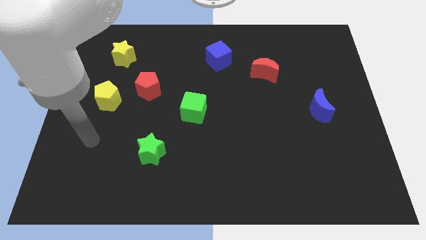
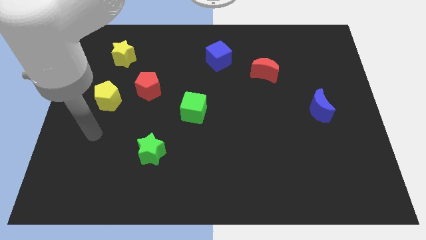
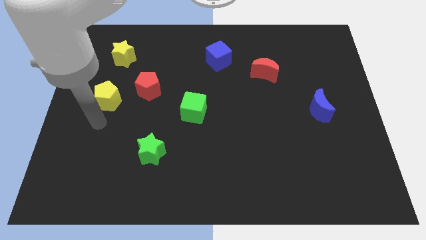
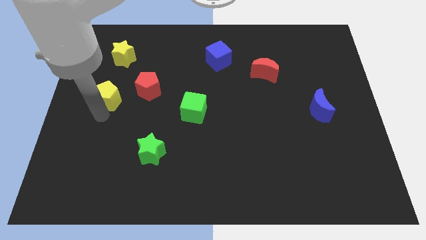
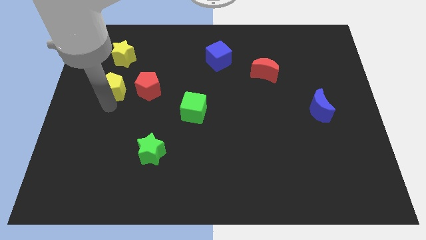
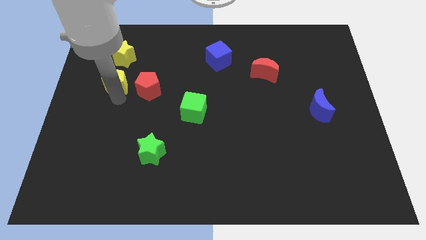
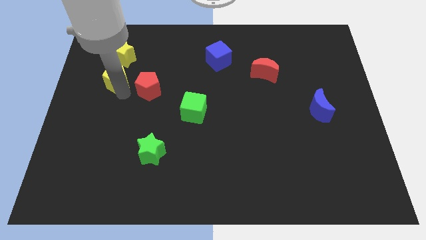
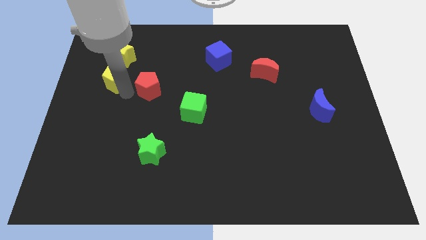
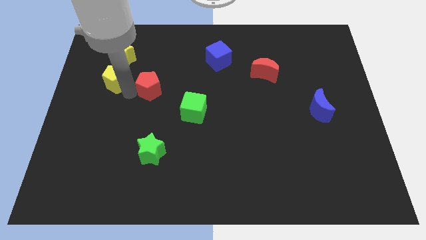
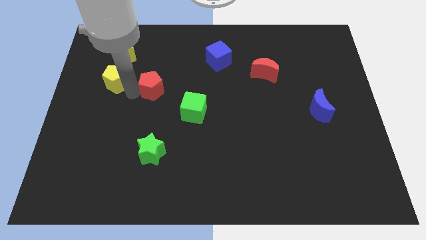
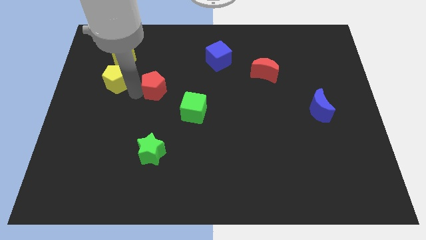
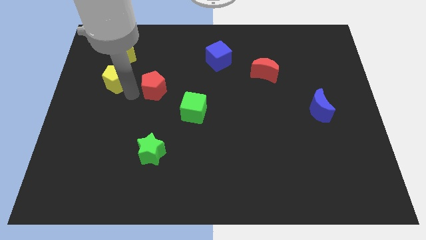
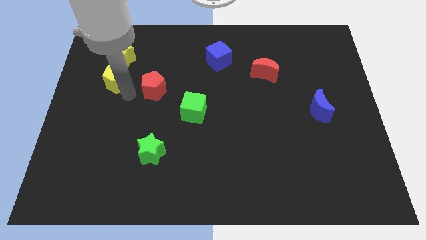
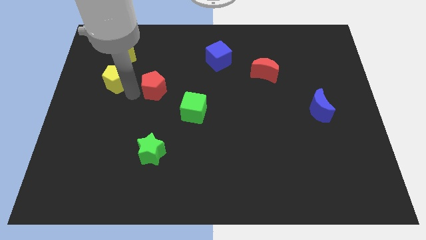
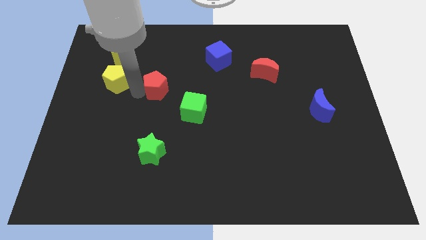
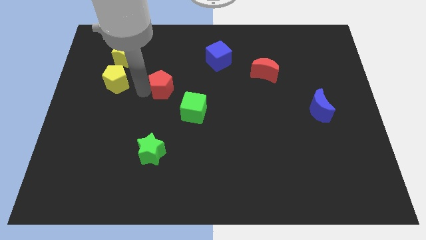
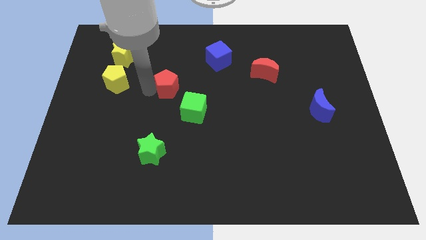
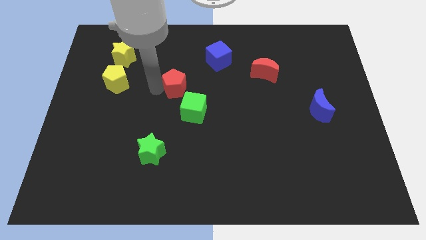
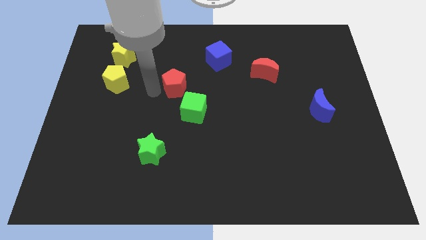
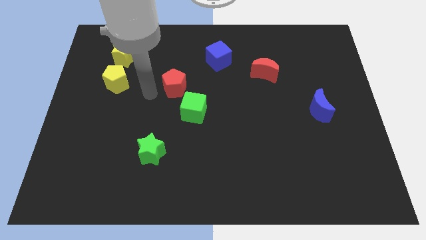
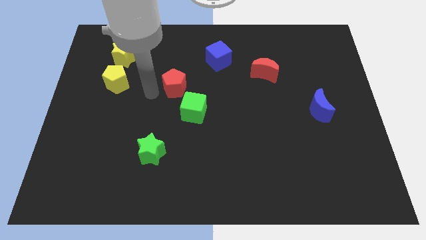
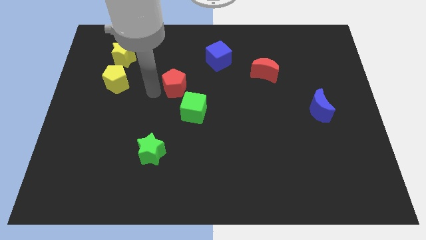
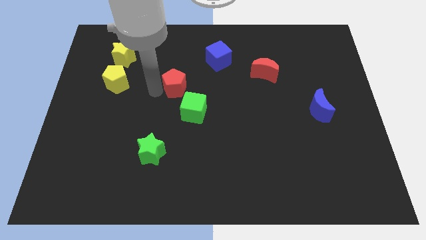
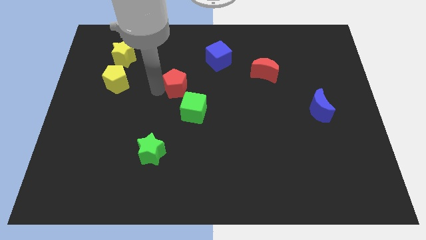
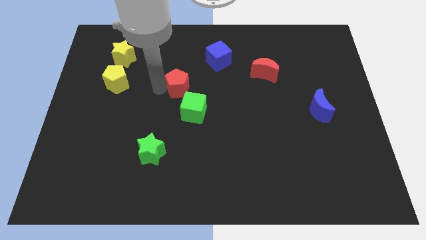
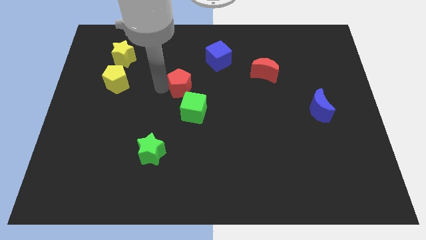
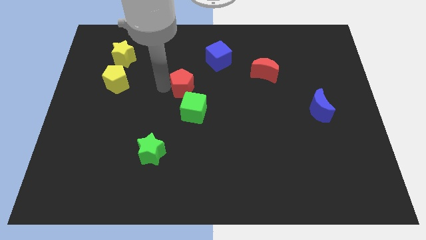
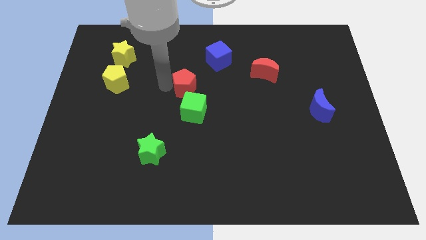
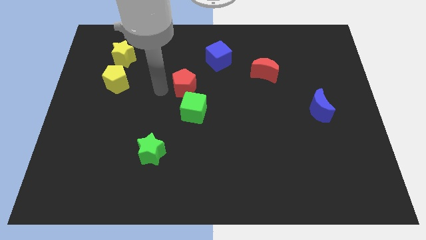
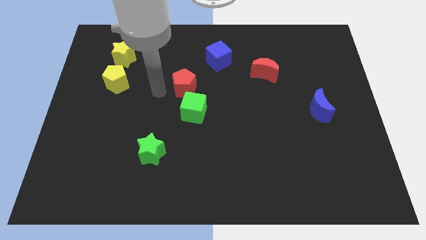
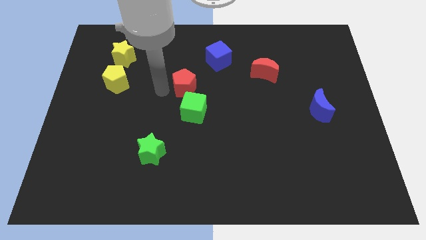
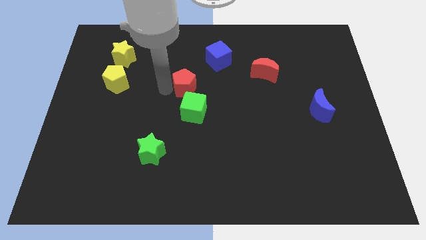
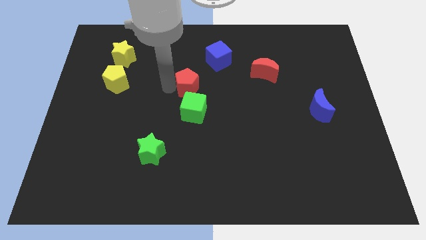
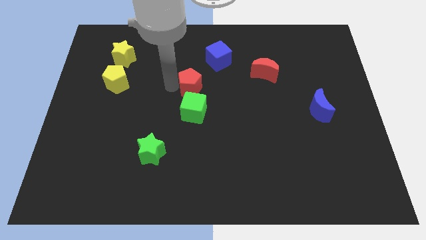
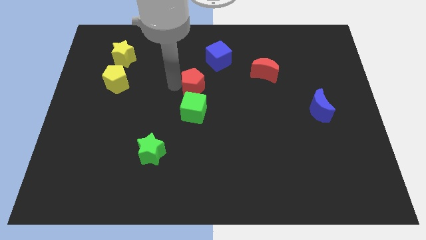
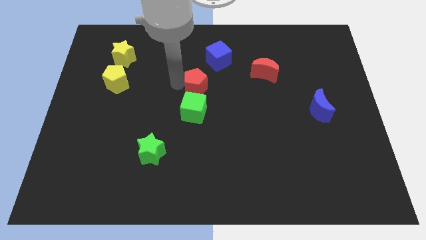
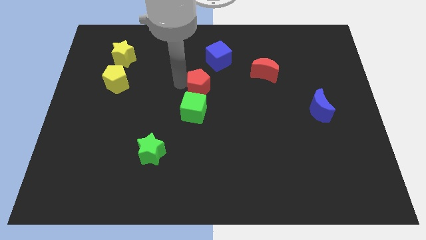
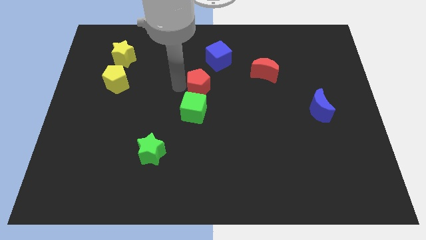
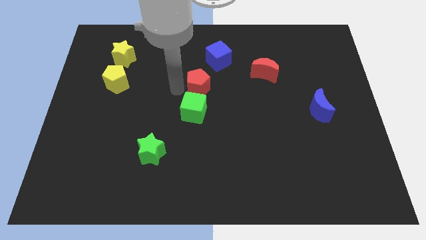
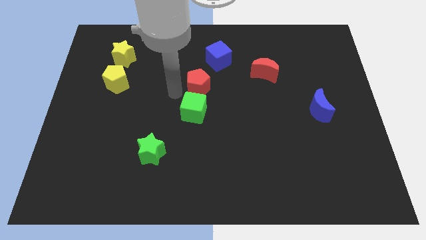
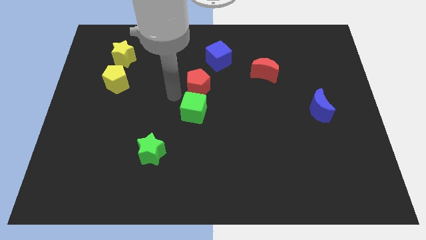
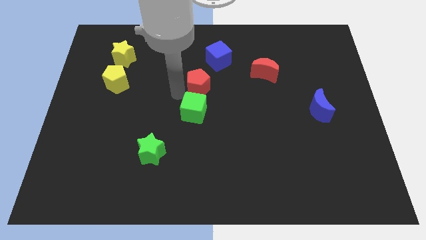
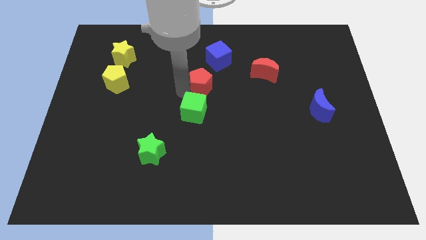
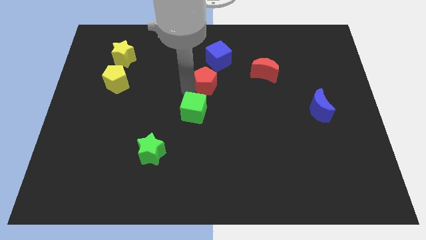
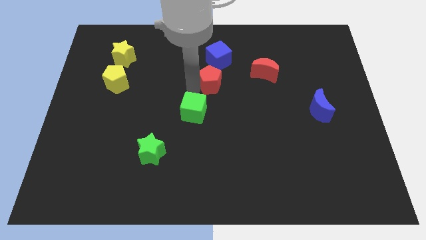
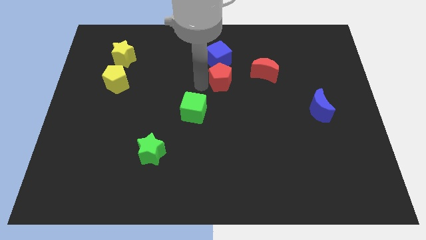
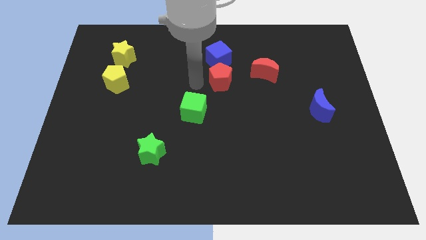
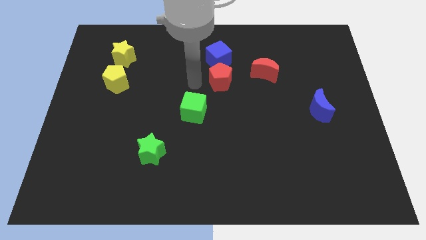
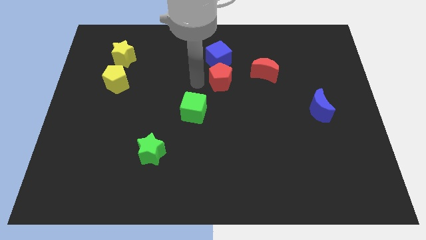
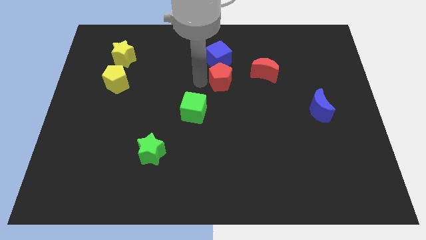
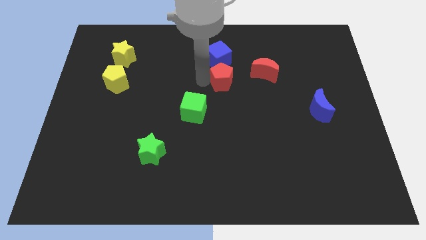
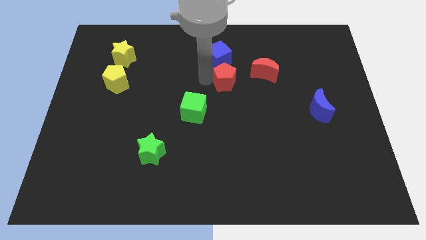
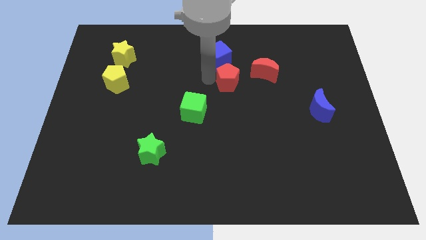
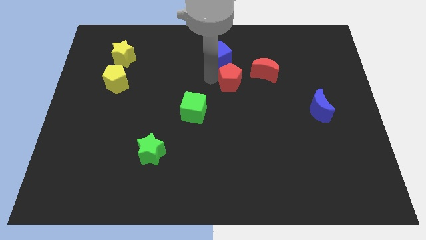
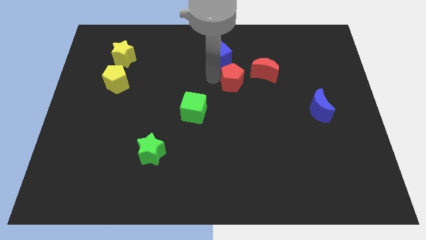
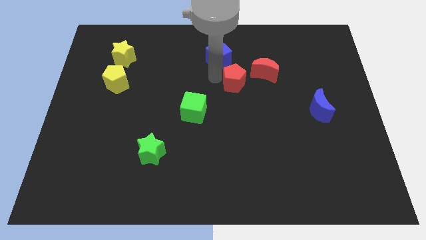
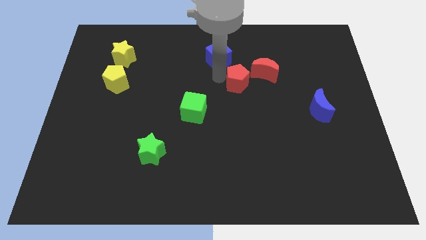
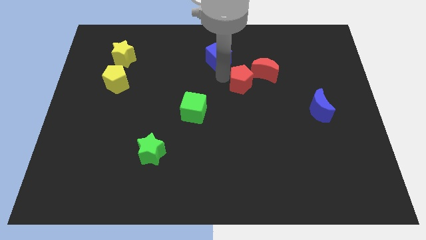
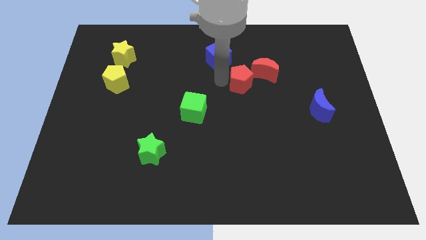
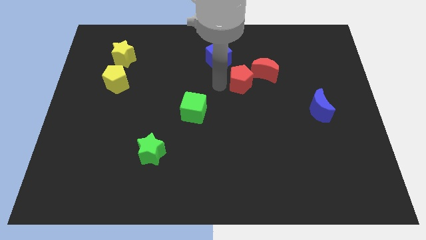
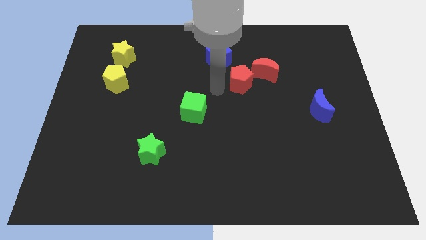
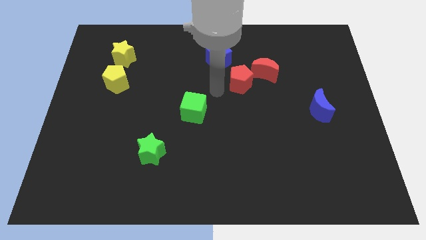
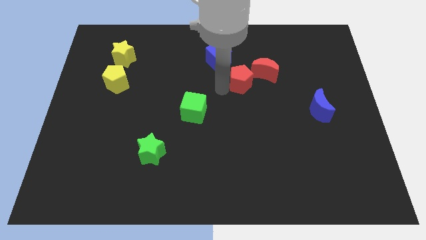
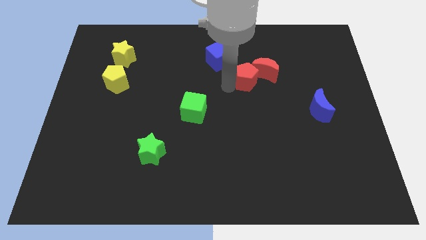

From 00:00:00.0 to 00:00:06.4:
slide the red pentagon to the red moon

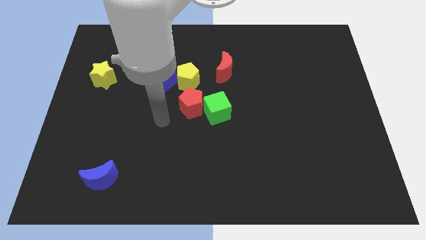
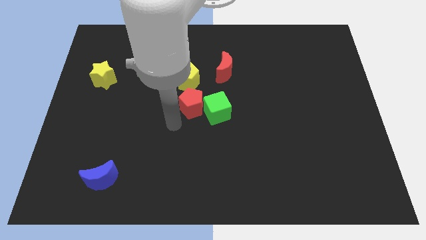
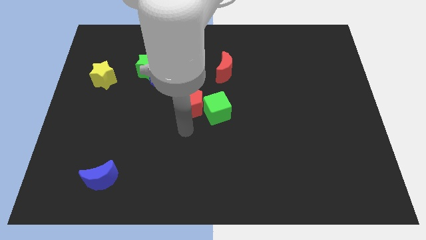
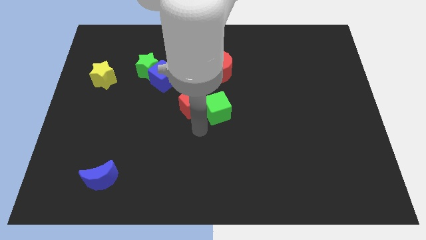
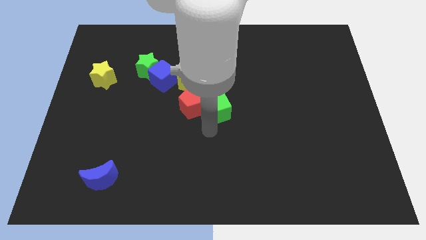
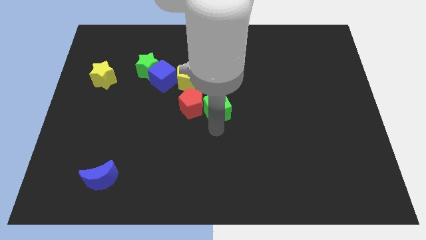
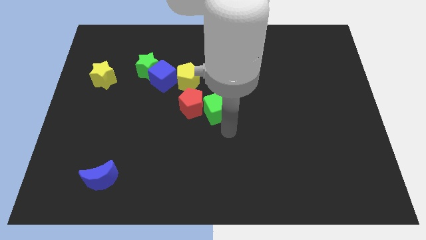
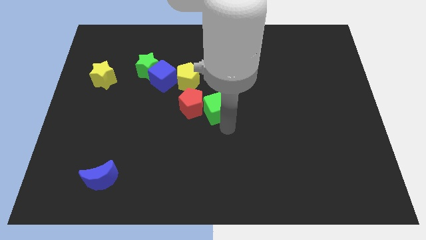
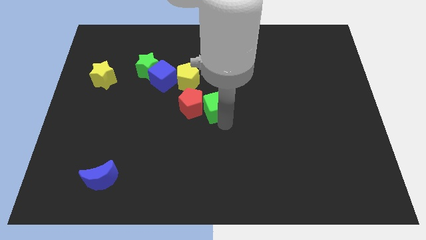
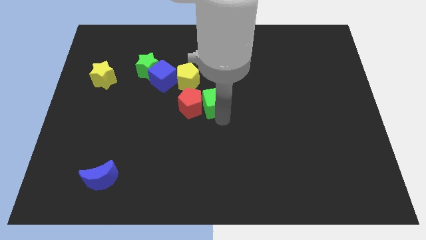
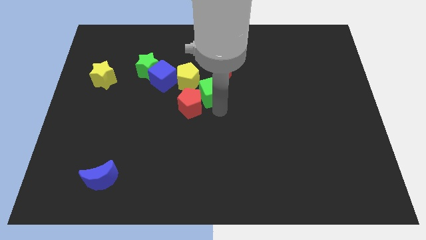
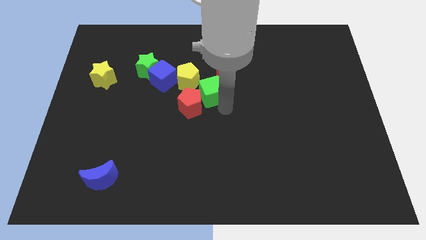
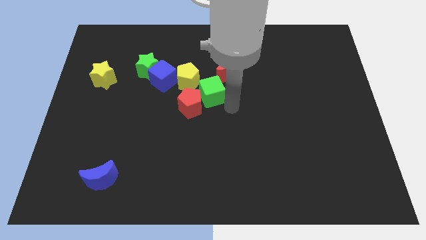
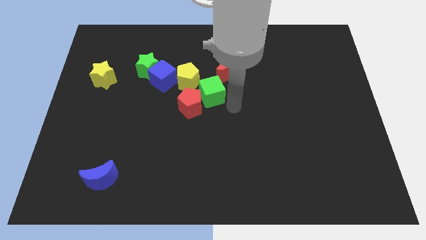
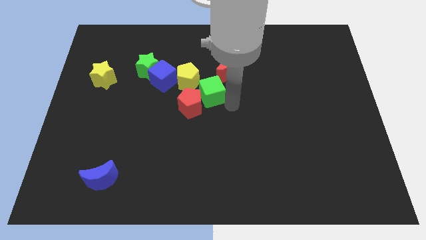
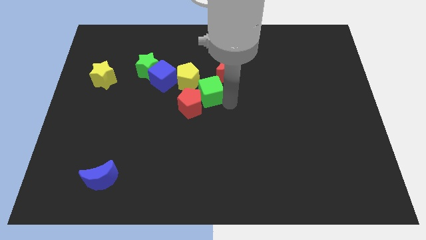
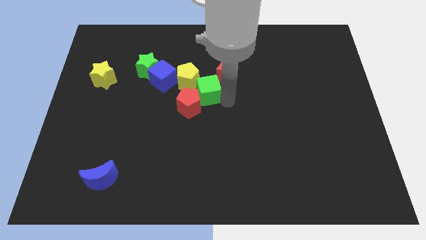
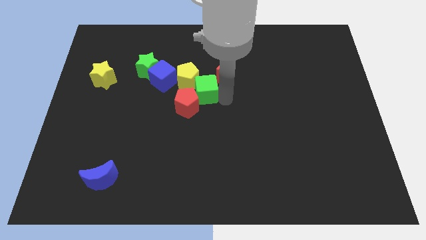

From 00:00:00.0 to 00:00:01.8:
put the green cube towards the yellow pentagon
